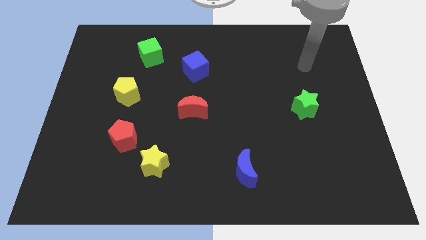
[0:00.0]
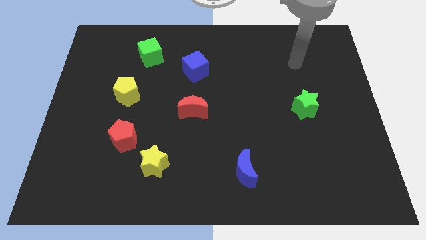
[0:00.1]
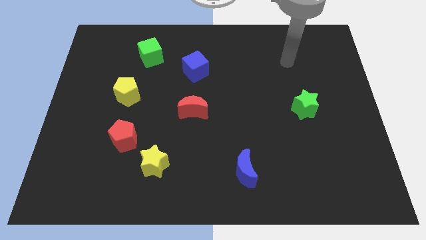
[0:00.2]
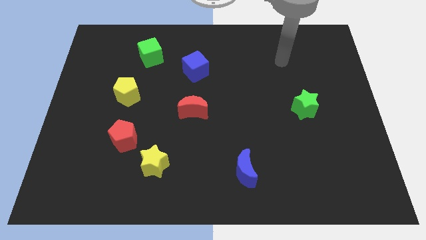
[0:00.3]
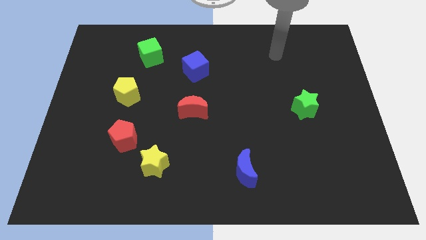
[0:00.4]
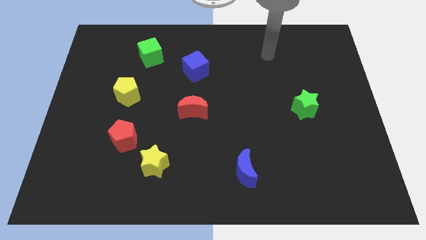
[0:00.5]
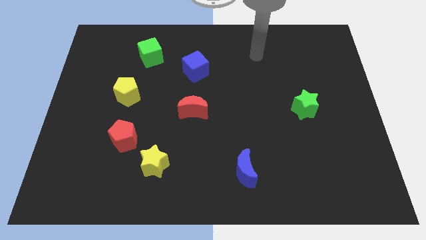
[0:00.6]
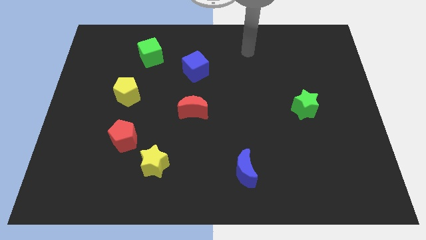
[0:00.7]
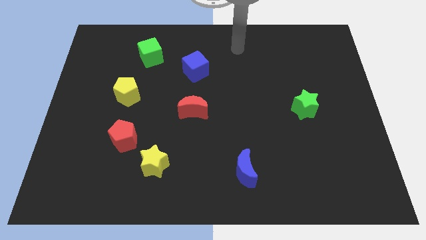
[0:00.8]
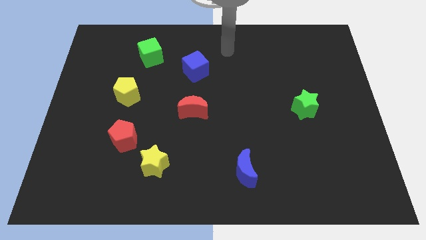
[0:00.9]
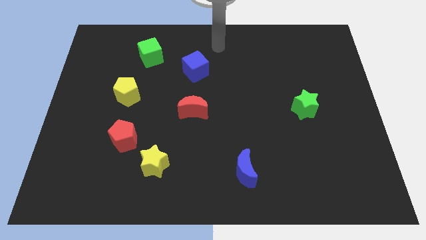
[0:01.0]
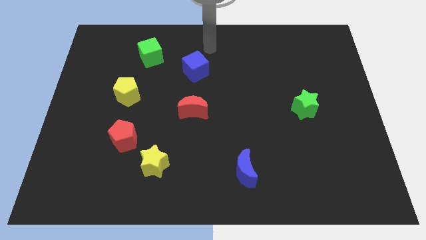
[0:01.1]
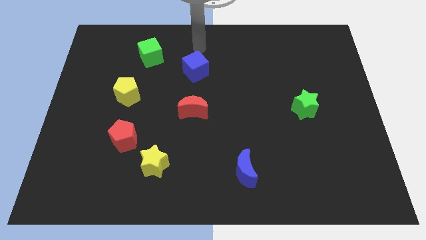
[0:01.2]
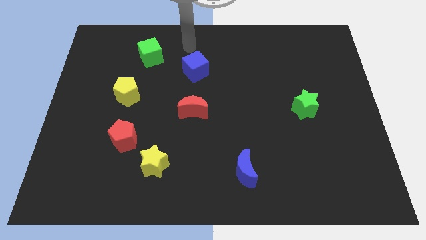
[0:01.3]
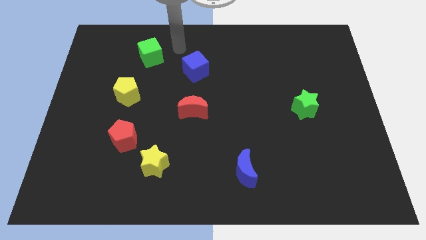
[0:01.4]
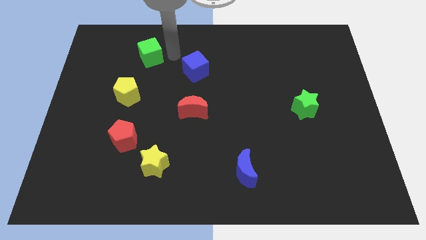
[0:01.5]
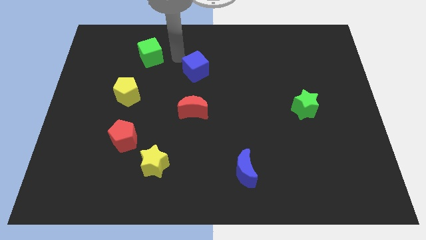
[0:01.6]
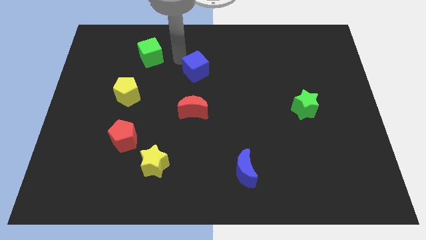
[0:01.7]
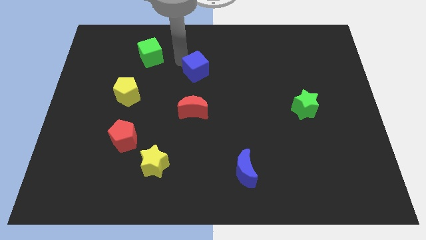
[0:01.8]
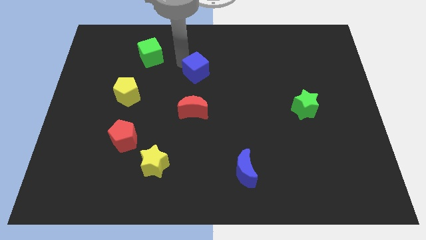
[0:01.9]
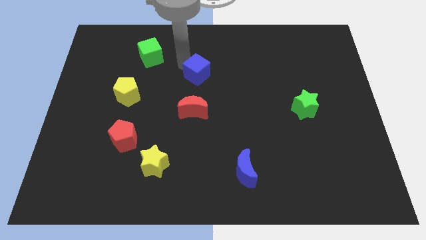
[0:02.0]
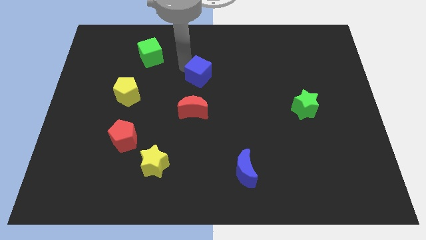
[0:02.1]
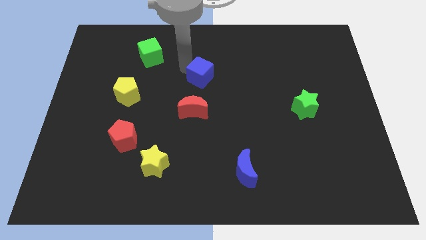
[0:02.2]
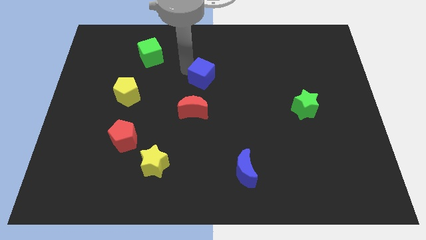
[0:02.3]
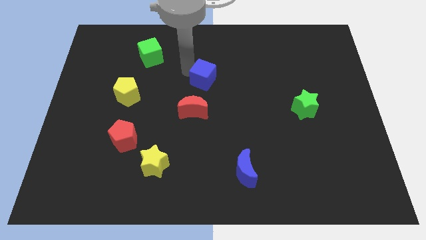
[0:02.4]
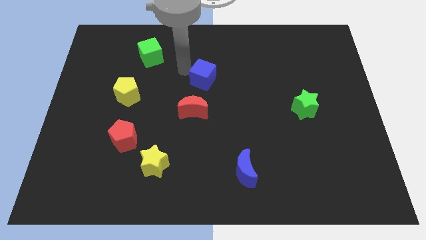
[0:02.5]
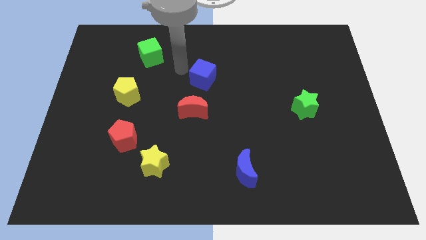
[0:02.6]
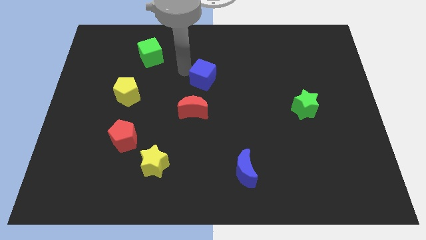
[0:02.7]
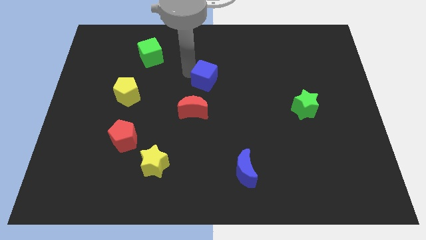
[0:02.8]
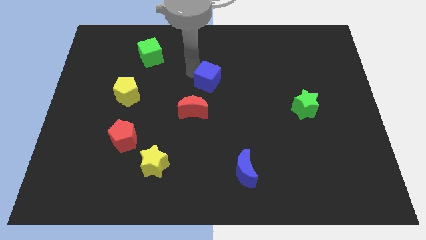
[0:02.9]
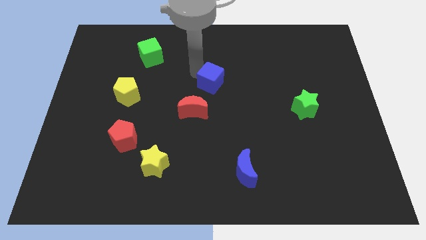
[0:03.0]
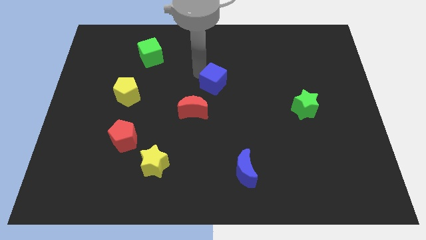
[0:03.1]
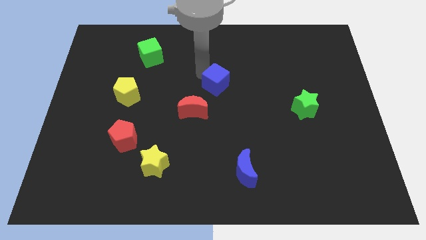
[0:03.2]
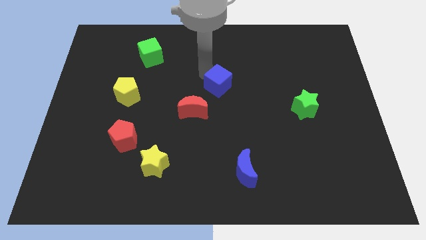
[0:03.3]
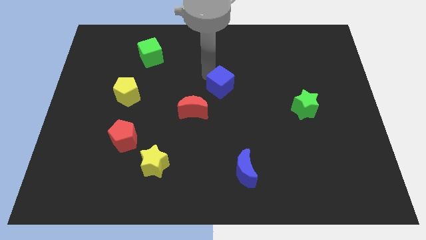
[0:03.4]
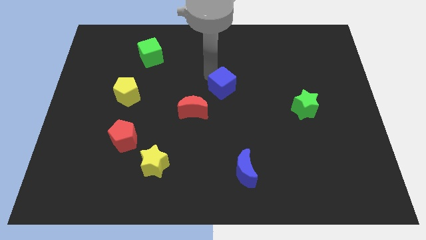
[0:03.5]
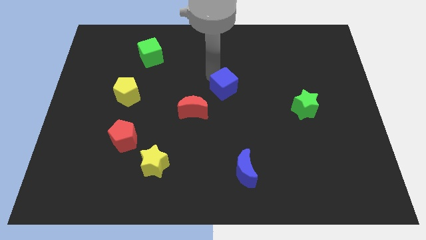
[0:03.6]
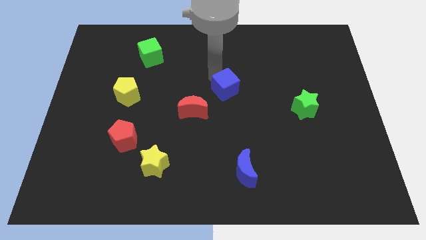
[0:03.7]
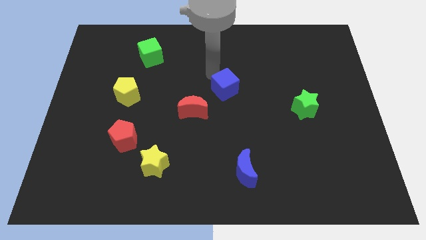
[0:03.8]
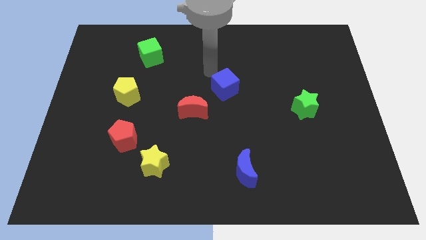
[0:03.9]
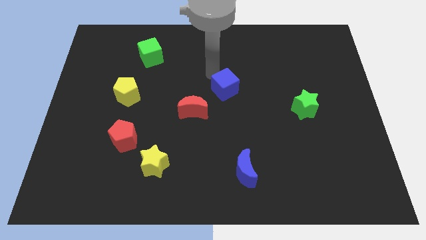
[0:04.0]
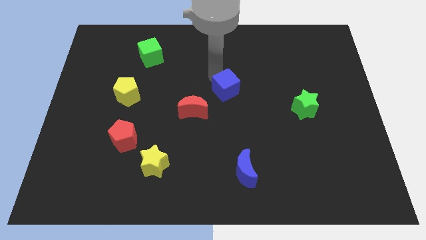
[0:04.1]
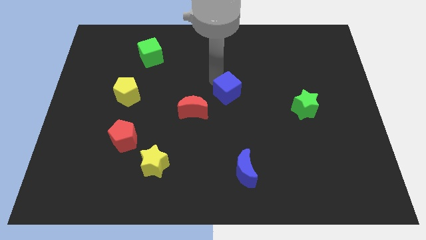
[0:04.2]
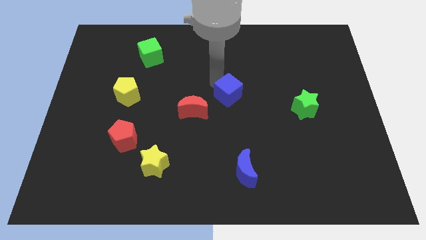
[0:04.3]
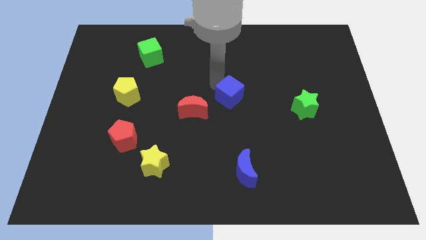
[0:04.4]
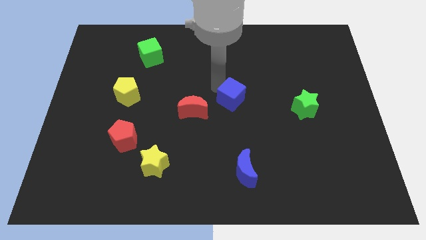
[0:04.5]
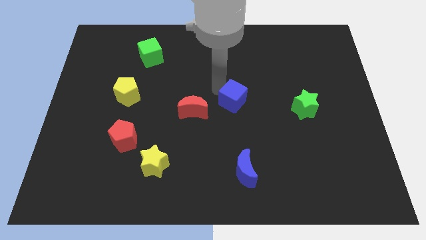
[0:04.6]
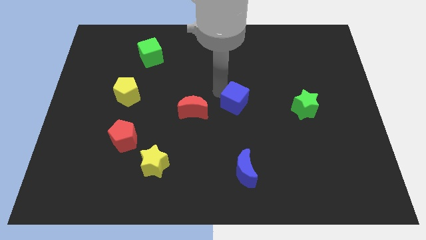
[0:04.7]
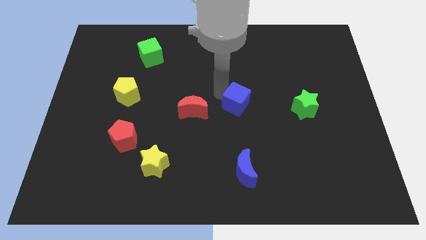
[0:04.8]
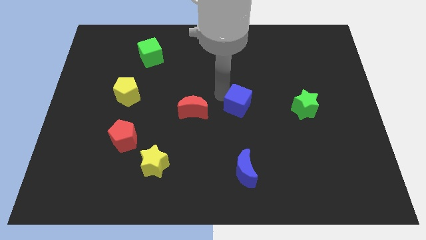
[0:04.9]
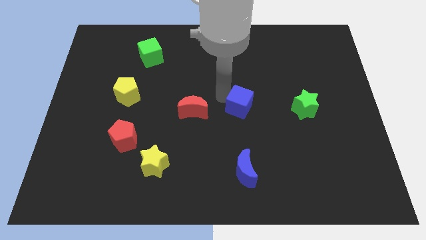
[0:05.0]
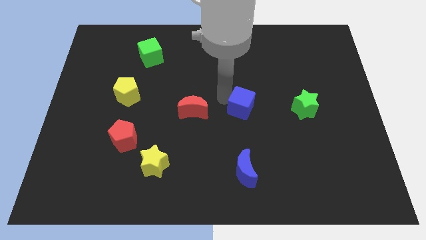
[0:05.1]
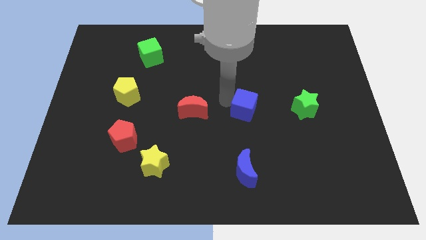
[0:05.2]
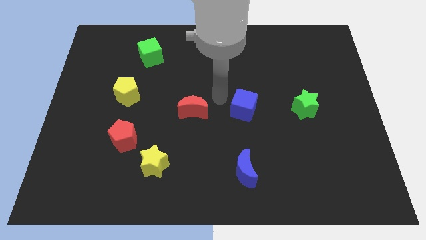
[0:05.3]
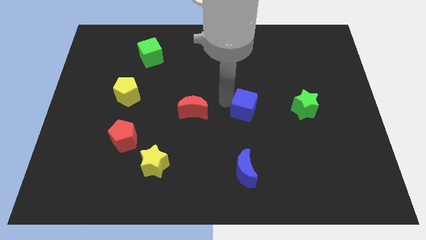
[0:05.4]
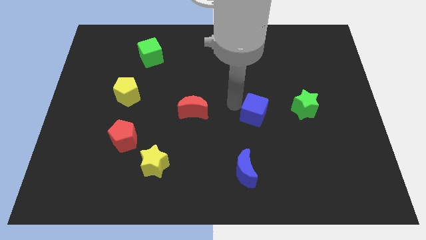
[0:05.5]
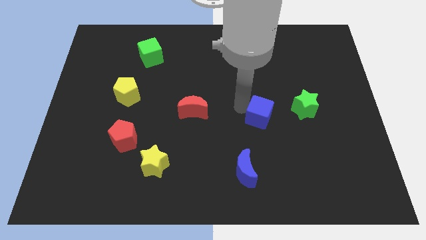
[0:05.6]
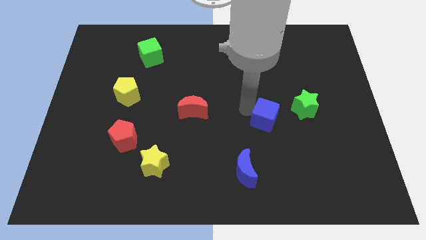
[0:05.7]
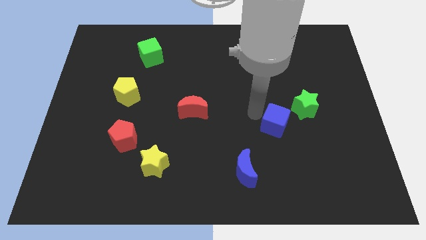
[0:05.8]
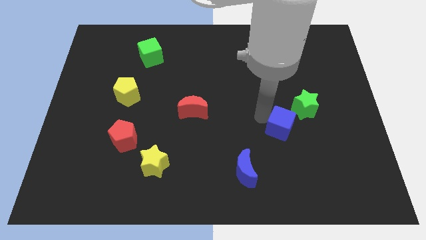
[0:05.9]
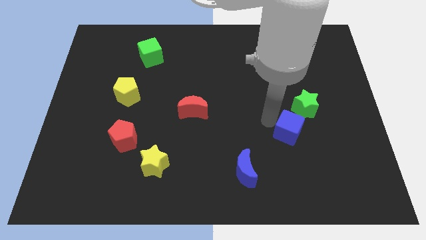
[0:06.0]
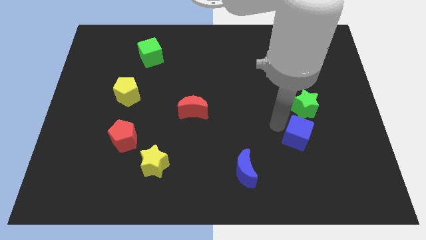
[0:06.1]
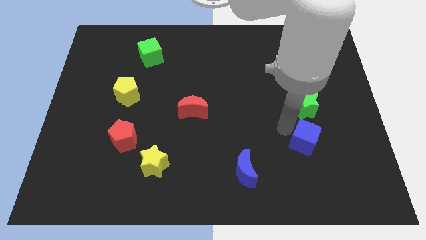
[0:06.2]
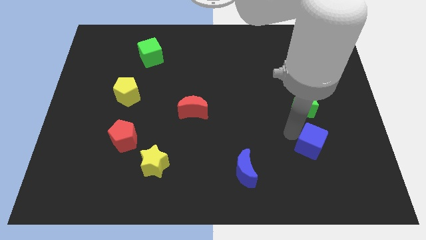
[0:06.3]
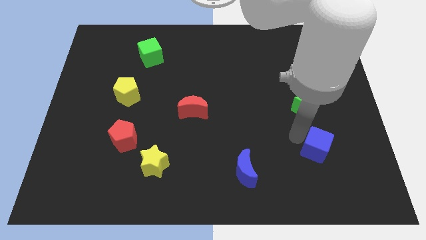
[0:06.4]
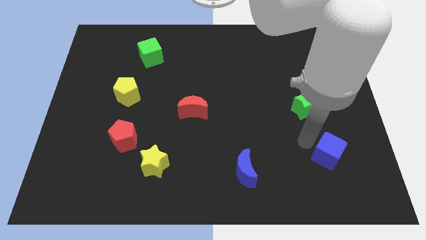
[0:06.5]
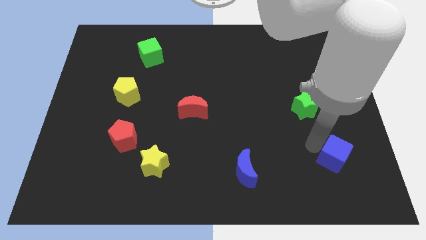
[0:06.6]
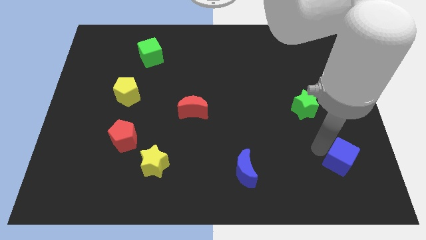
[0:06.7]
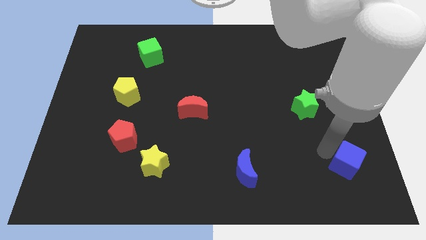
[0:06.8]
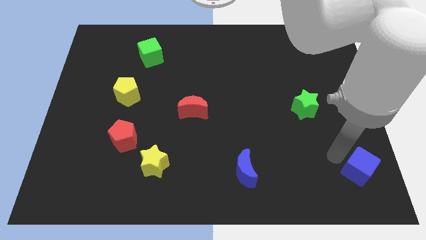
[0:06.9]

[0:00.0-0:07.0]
slide the blue cube to the lower right corner

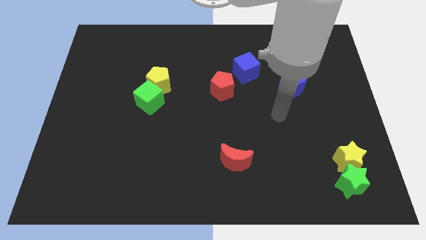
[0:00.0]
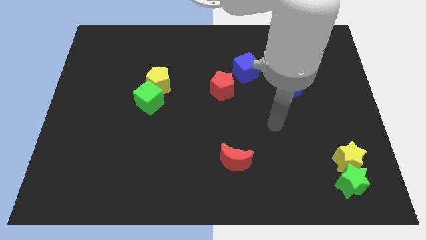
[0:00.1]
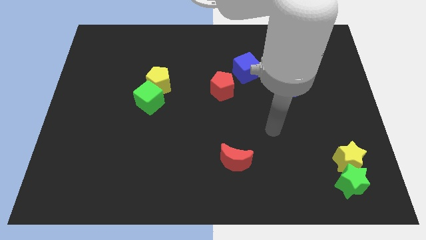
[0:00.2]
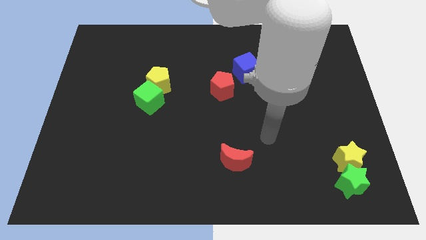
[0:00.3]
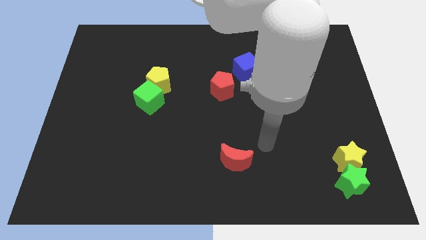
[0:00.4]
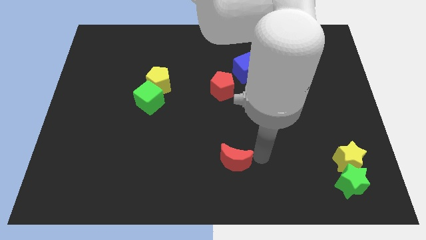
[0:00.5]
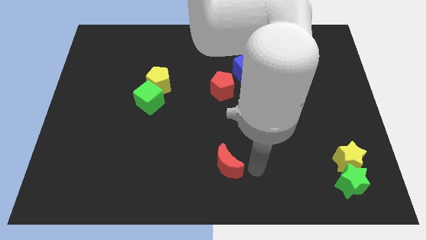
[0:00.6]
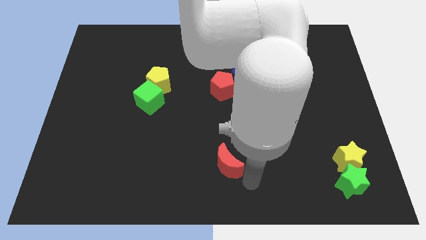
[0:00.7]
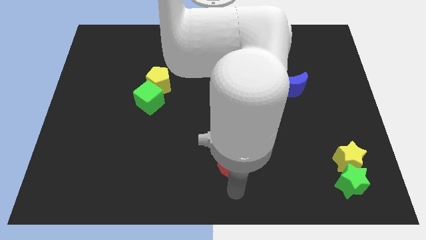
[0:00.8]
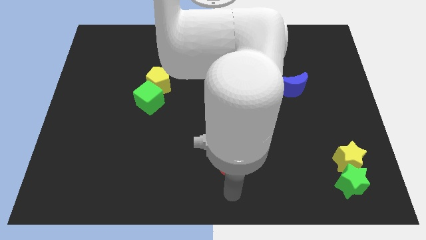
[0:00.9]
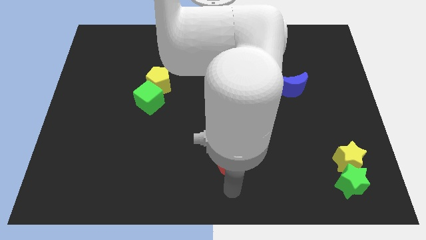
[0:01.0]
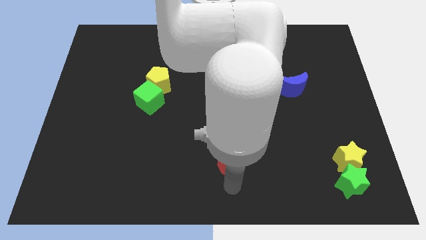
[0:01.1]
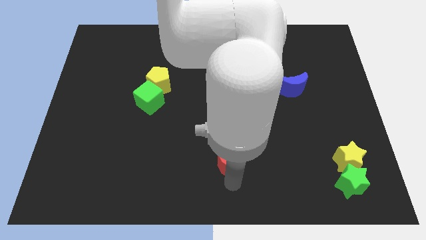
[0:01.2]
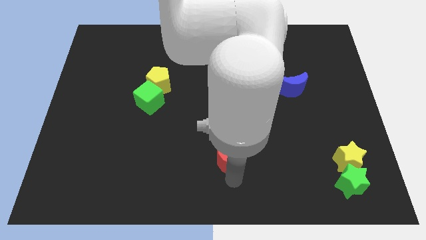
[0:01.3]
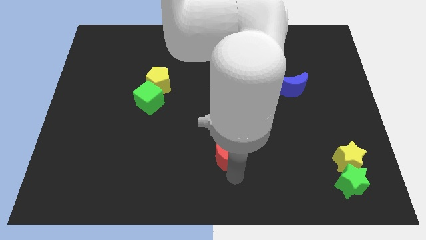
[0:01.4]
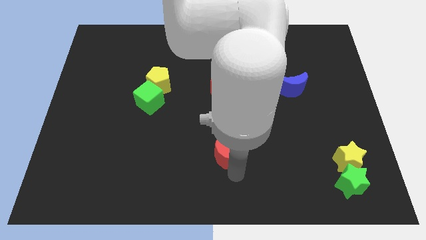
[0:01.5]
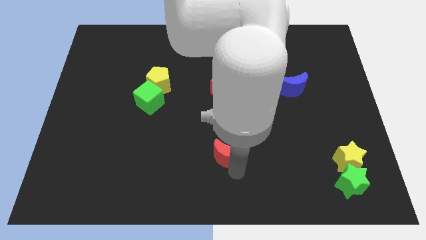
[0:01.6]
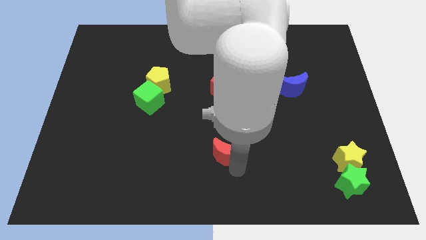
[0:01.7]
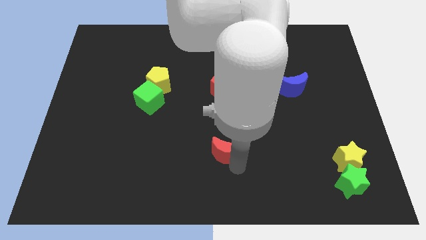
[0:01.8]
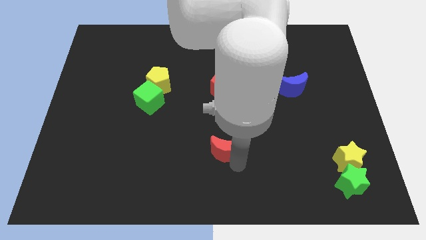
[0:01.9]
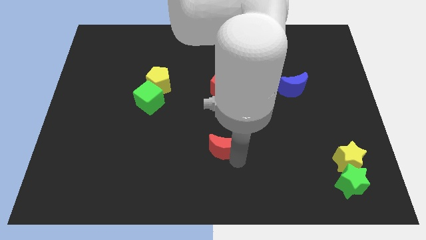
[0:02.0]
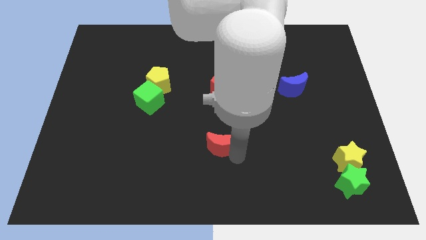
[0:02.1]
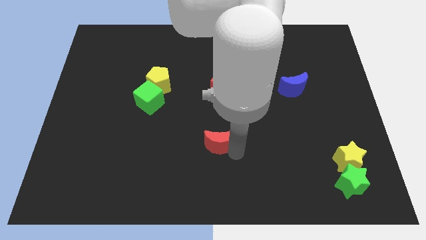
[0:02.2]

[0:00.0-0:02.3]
slide the red moon to the center
